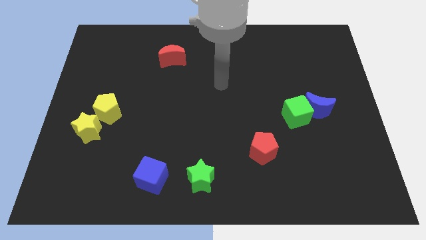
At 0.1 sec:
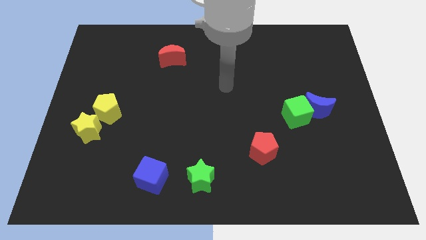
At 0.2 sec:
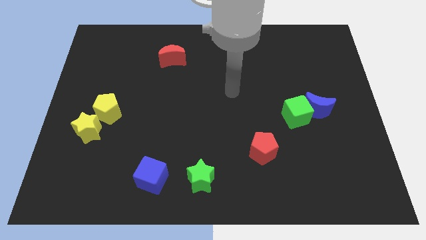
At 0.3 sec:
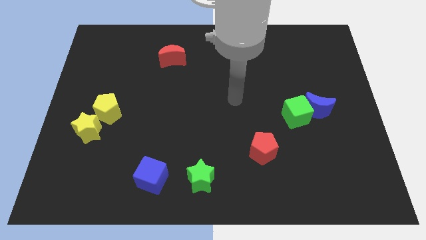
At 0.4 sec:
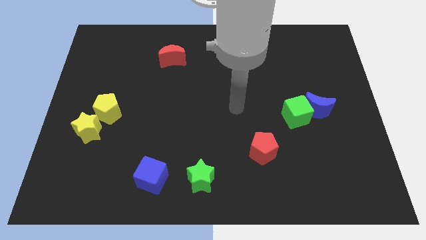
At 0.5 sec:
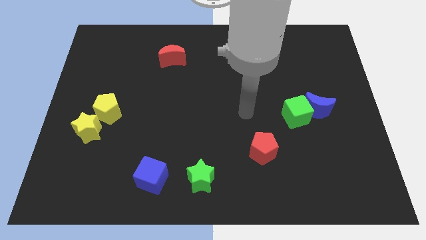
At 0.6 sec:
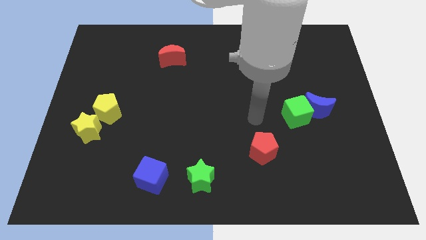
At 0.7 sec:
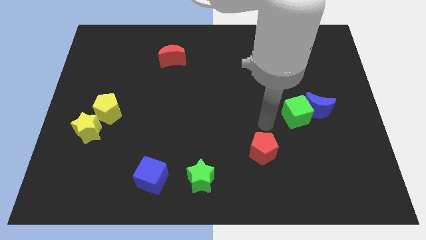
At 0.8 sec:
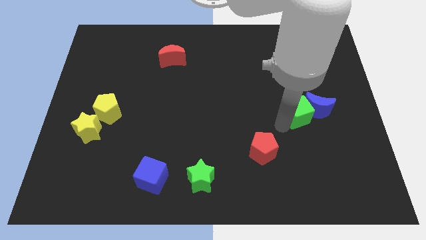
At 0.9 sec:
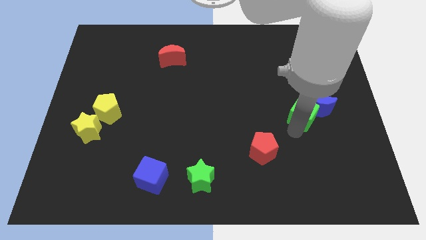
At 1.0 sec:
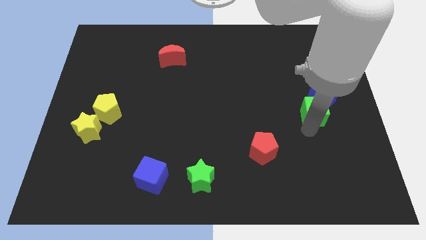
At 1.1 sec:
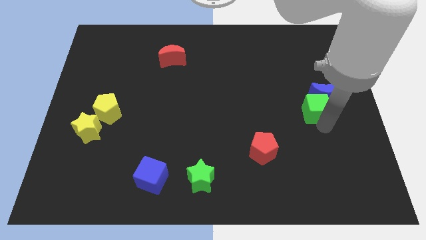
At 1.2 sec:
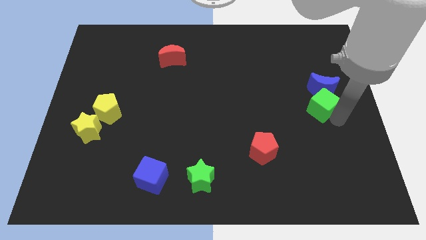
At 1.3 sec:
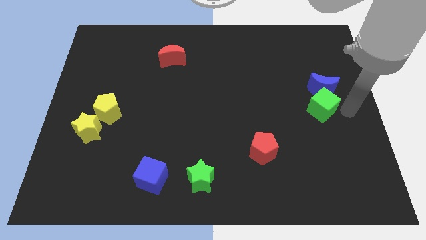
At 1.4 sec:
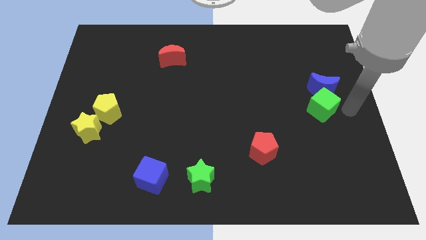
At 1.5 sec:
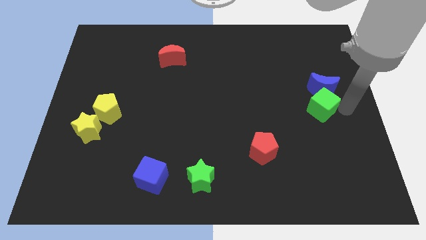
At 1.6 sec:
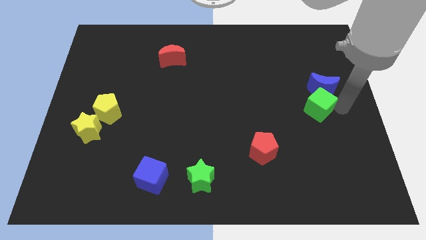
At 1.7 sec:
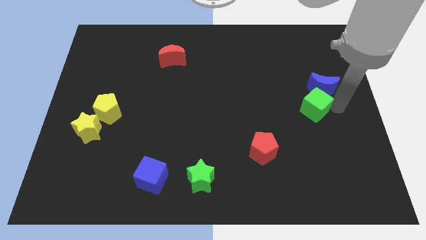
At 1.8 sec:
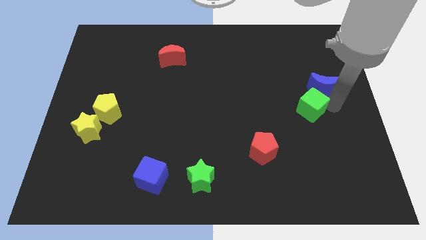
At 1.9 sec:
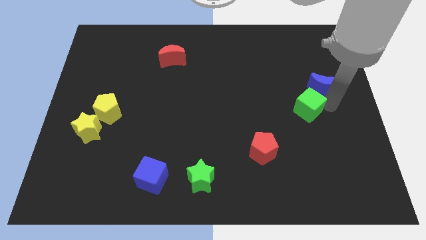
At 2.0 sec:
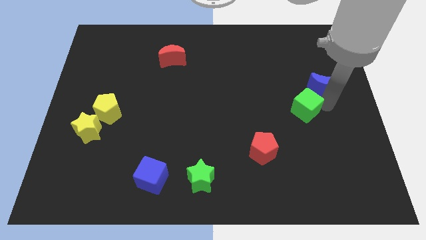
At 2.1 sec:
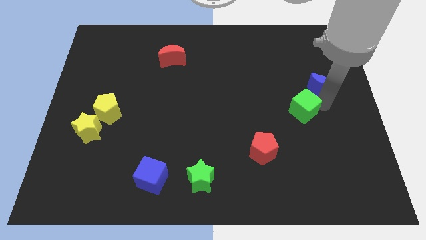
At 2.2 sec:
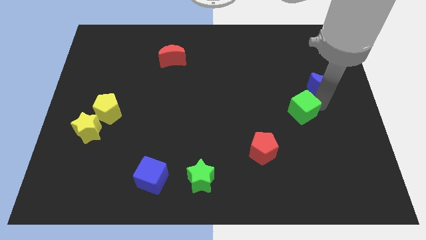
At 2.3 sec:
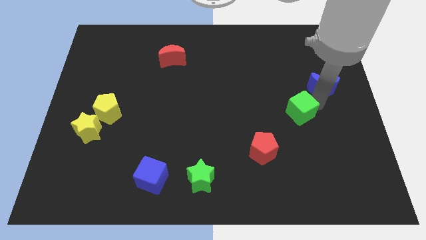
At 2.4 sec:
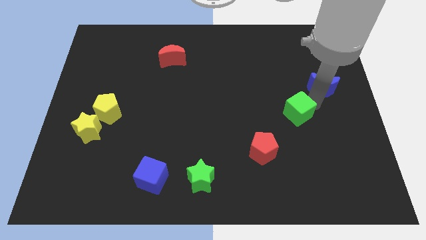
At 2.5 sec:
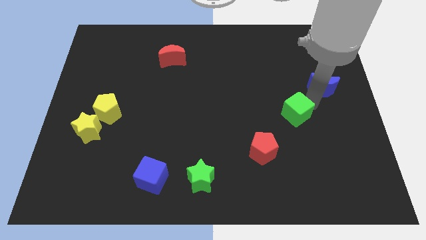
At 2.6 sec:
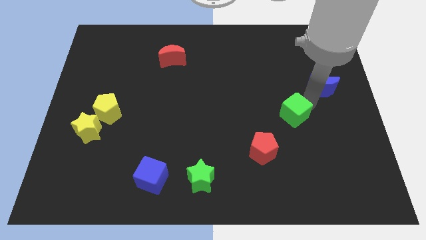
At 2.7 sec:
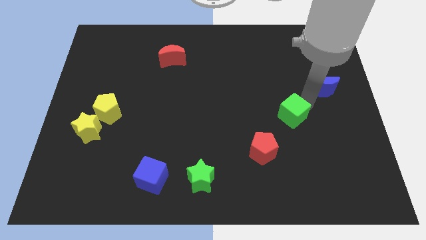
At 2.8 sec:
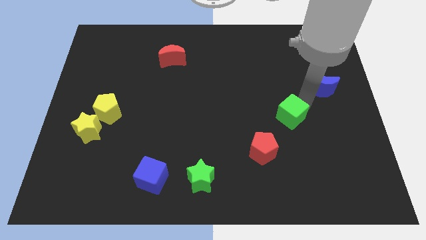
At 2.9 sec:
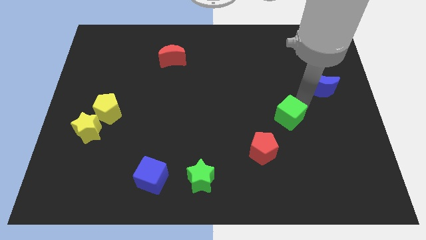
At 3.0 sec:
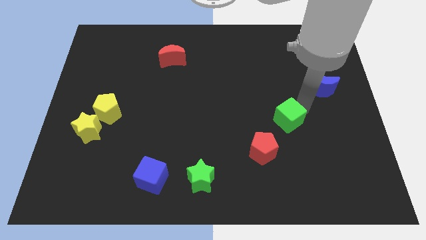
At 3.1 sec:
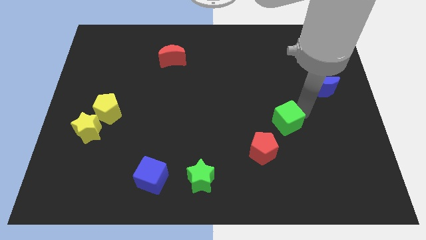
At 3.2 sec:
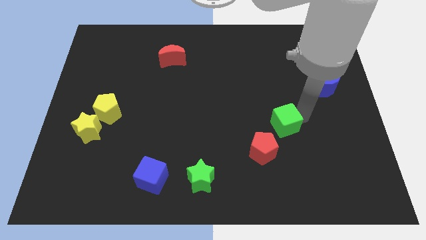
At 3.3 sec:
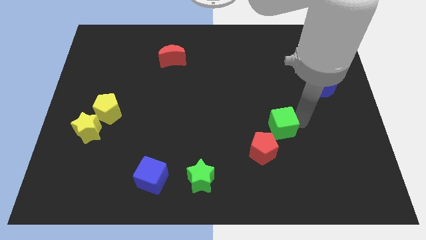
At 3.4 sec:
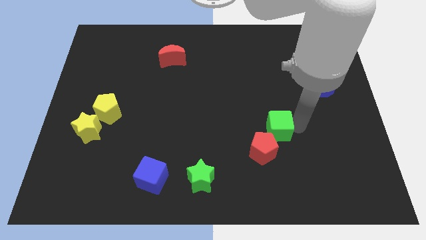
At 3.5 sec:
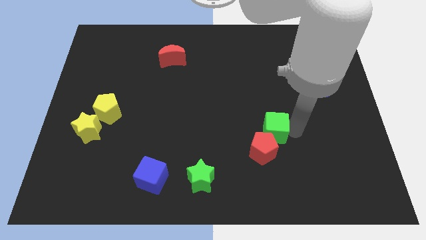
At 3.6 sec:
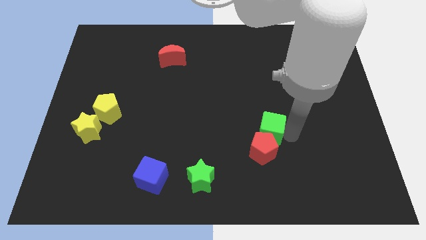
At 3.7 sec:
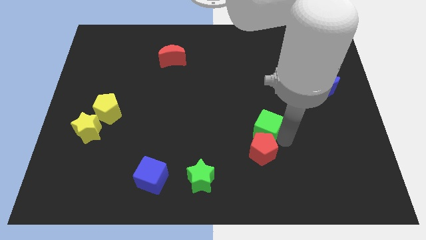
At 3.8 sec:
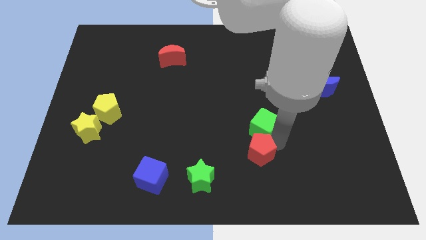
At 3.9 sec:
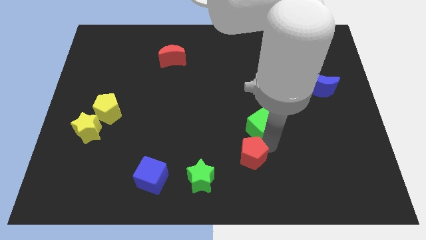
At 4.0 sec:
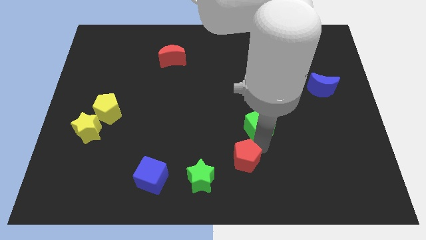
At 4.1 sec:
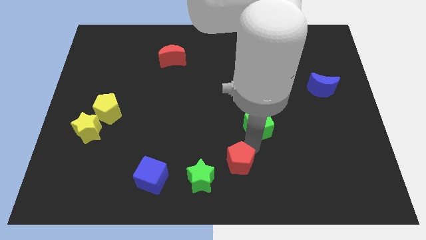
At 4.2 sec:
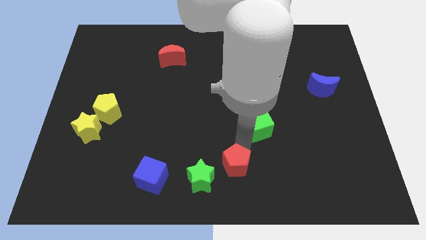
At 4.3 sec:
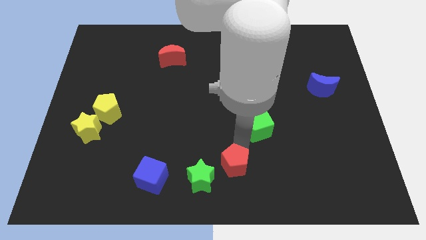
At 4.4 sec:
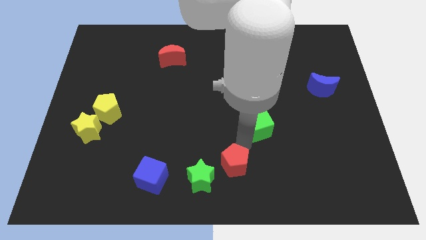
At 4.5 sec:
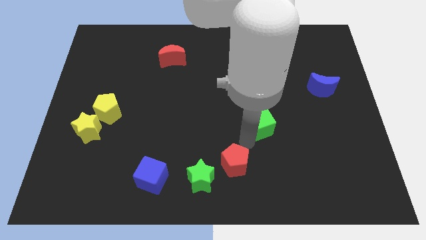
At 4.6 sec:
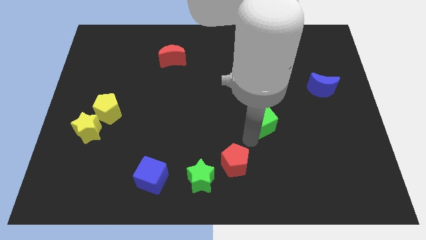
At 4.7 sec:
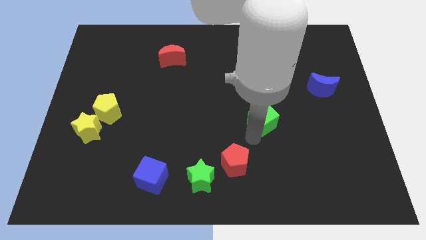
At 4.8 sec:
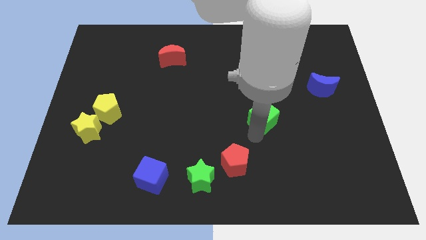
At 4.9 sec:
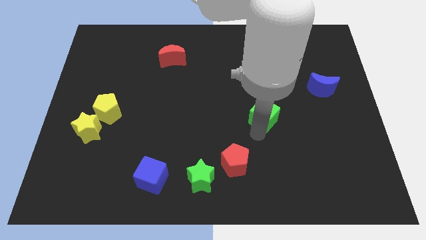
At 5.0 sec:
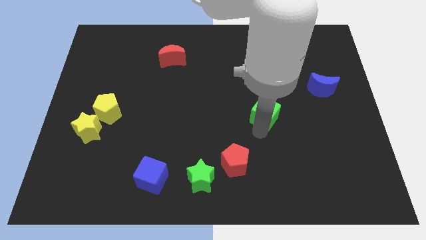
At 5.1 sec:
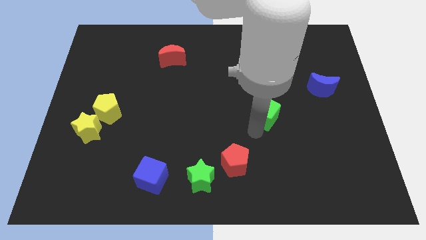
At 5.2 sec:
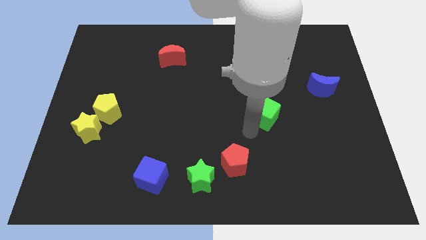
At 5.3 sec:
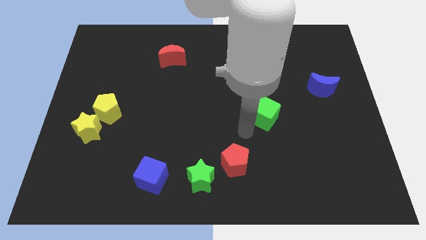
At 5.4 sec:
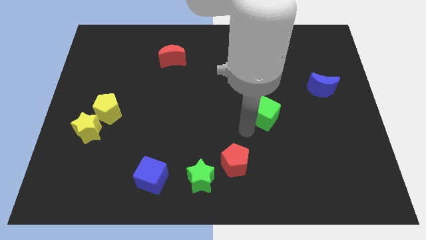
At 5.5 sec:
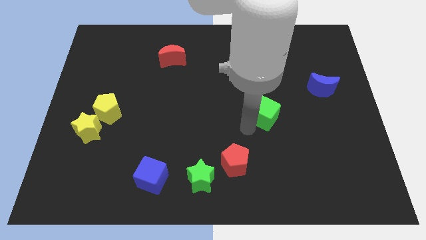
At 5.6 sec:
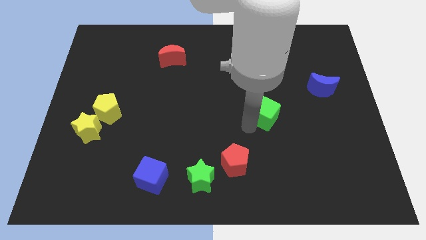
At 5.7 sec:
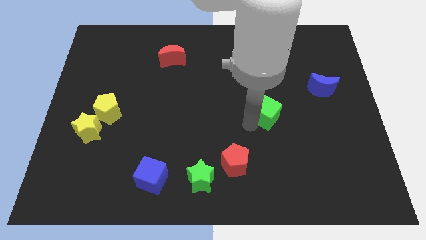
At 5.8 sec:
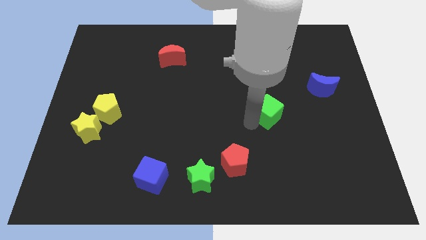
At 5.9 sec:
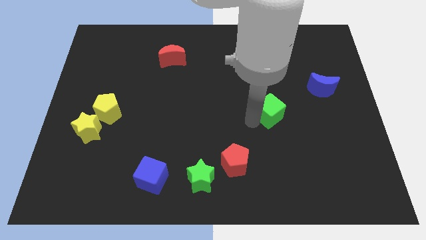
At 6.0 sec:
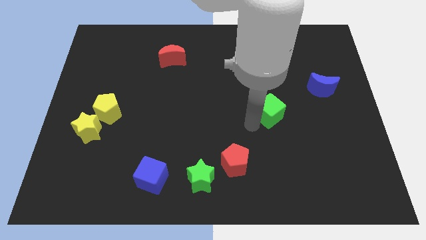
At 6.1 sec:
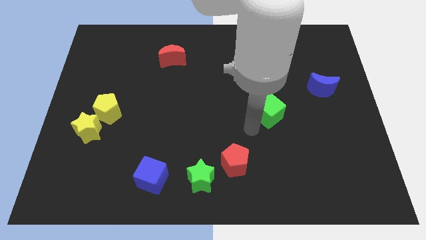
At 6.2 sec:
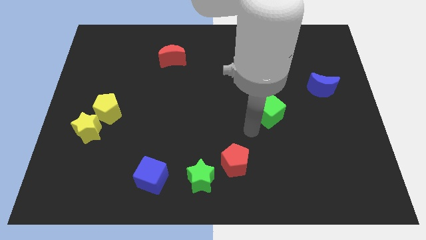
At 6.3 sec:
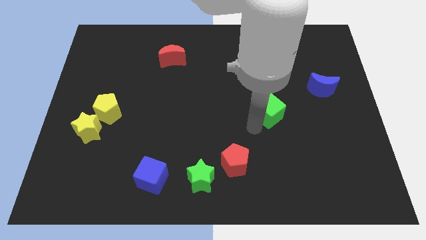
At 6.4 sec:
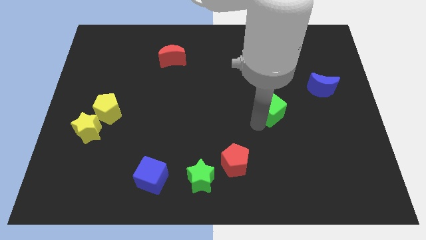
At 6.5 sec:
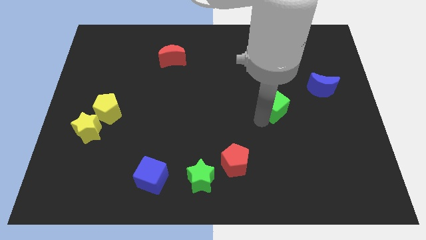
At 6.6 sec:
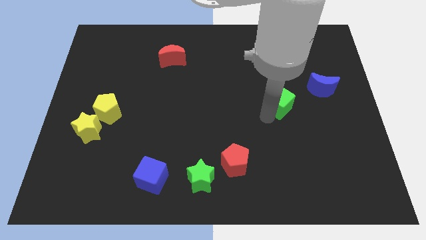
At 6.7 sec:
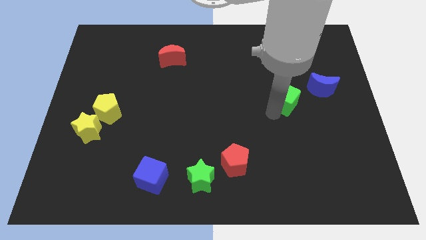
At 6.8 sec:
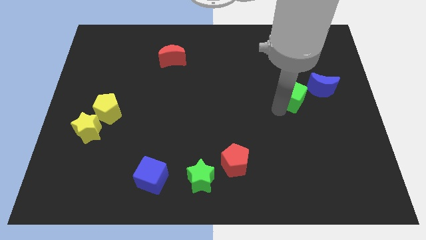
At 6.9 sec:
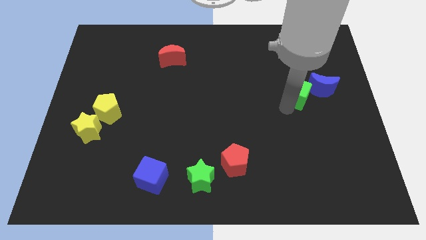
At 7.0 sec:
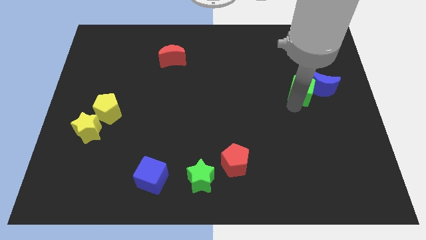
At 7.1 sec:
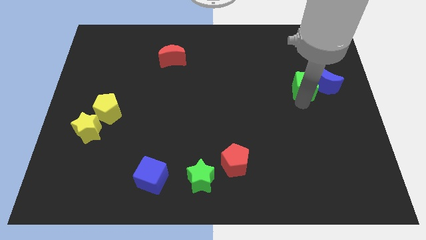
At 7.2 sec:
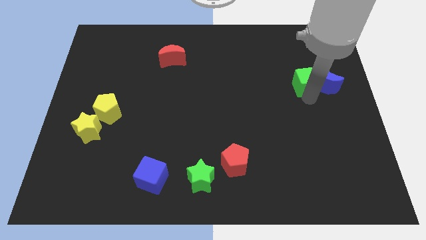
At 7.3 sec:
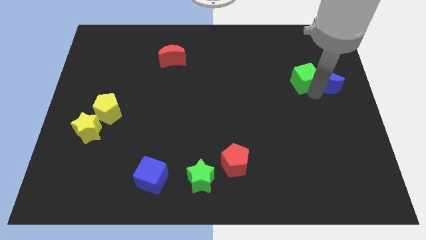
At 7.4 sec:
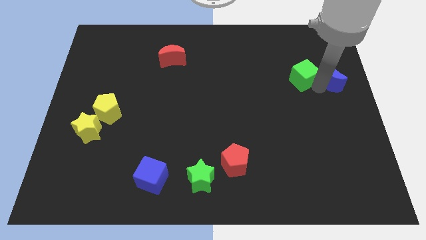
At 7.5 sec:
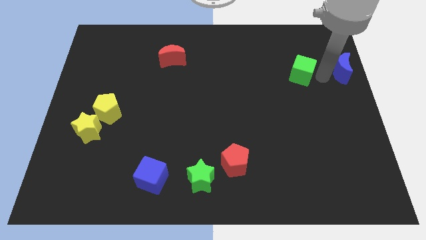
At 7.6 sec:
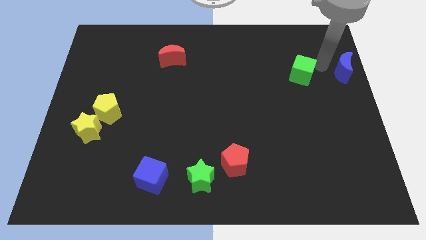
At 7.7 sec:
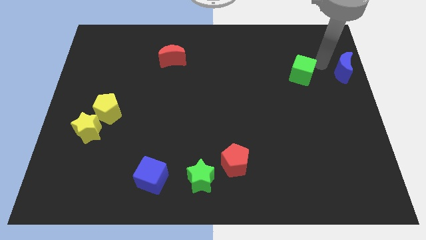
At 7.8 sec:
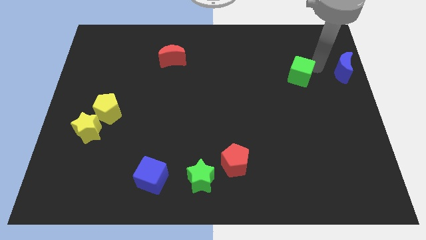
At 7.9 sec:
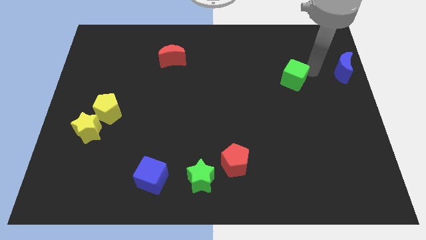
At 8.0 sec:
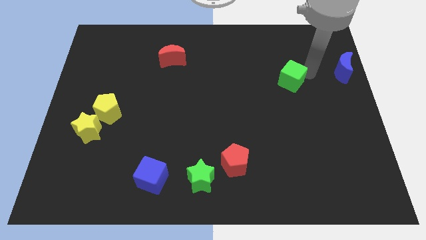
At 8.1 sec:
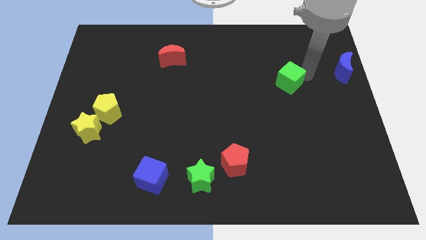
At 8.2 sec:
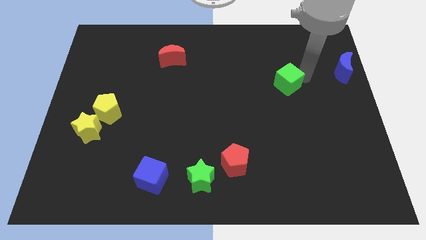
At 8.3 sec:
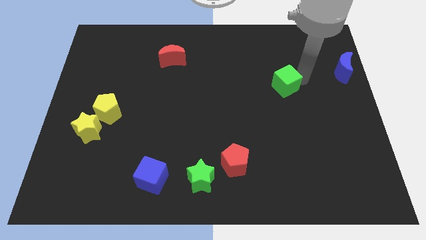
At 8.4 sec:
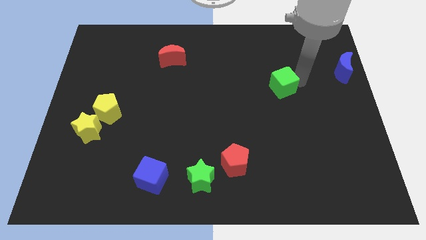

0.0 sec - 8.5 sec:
push the green cube diagonally upwards and left a bit
